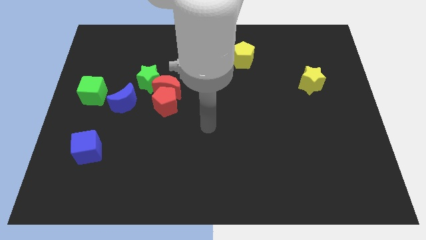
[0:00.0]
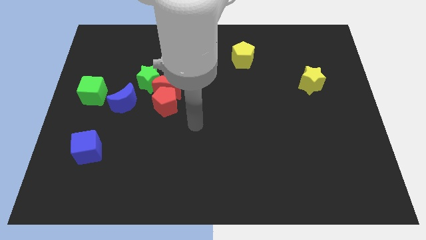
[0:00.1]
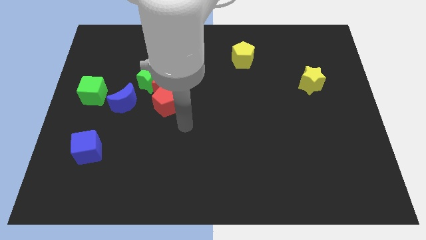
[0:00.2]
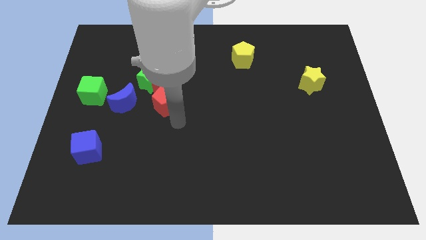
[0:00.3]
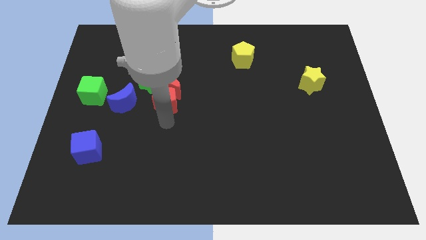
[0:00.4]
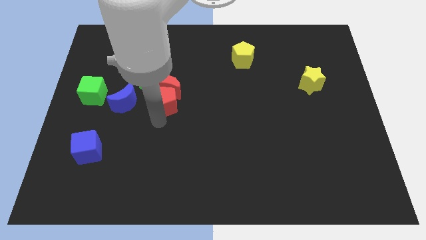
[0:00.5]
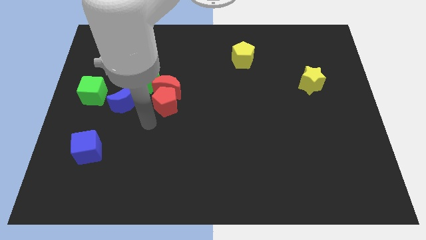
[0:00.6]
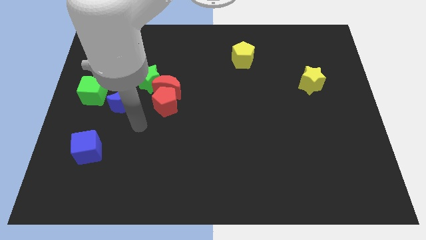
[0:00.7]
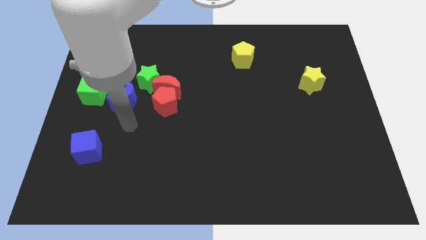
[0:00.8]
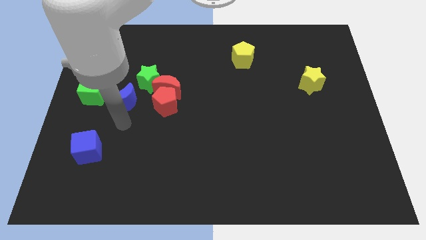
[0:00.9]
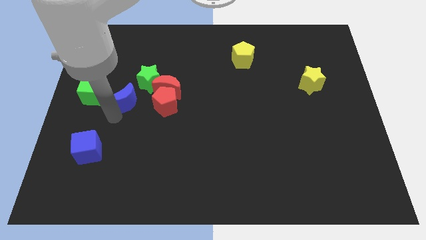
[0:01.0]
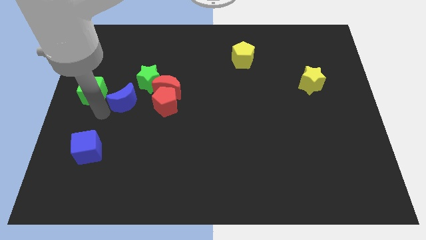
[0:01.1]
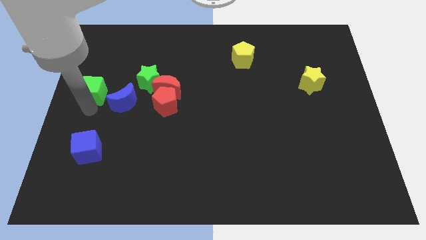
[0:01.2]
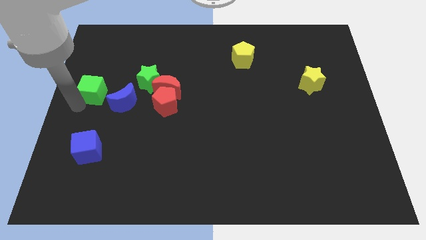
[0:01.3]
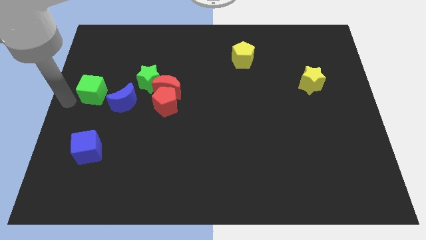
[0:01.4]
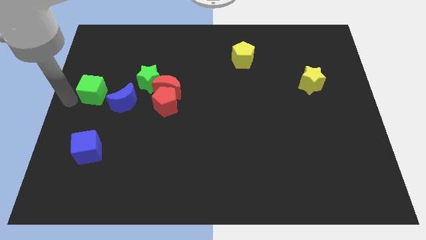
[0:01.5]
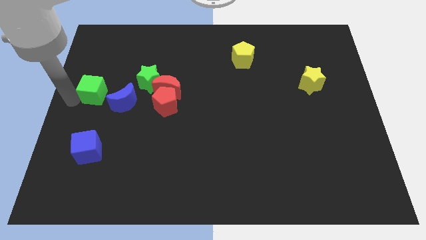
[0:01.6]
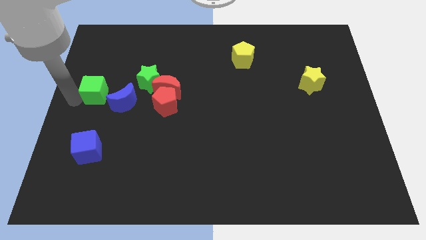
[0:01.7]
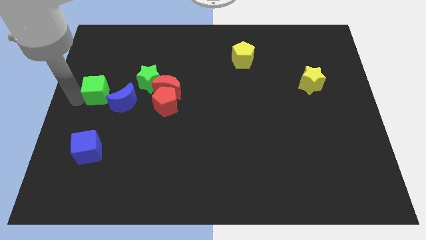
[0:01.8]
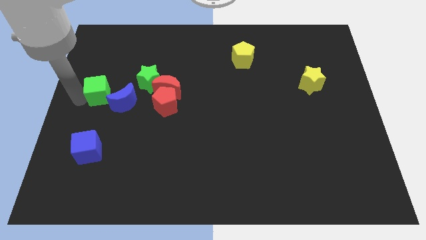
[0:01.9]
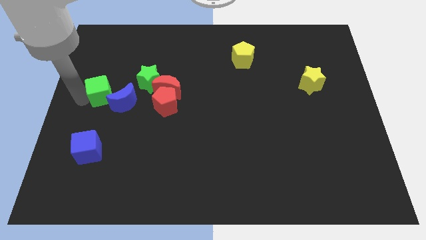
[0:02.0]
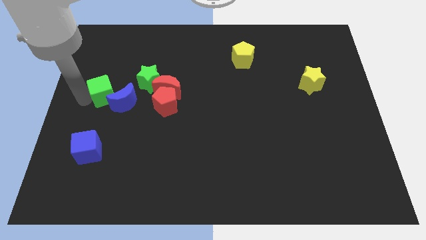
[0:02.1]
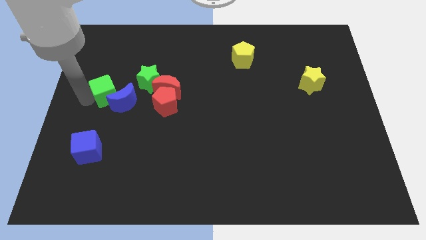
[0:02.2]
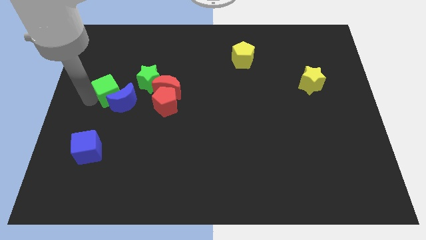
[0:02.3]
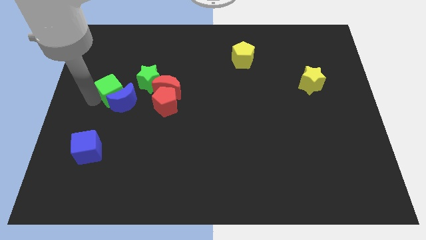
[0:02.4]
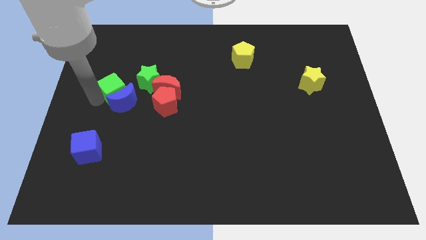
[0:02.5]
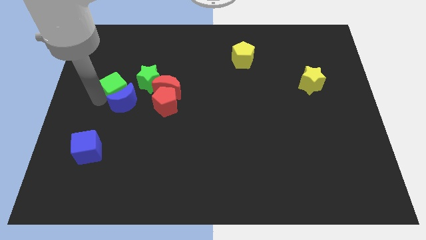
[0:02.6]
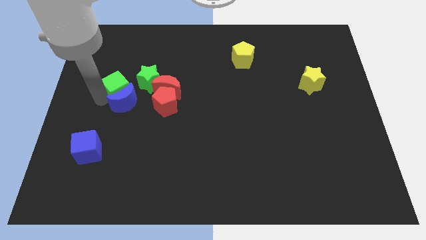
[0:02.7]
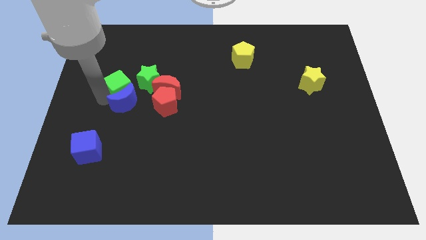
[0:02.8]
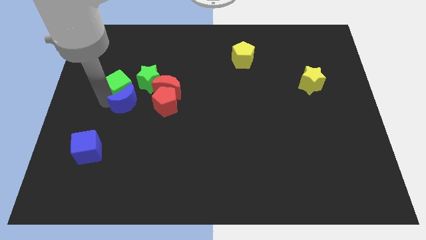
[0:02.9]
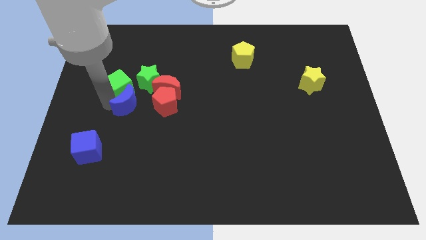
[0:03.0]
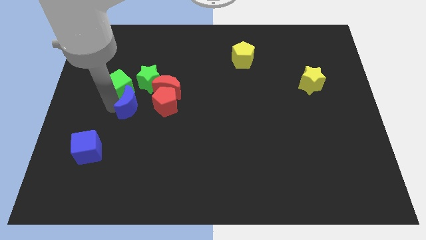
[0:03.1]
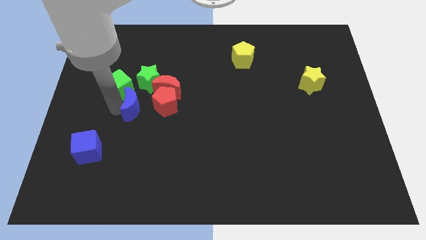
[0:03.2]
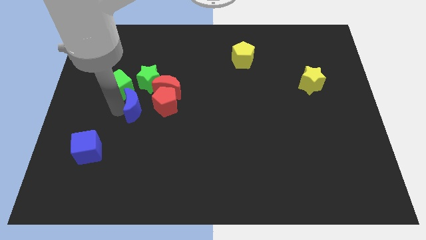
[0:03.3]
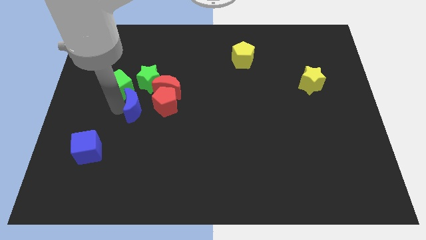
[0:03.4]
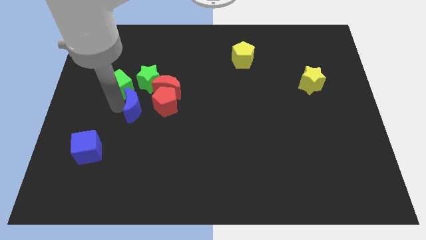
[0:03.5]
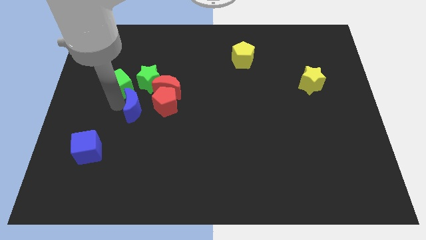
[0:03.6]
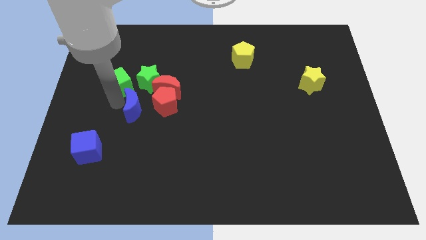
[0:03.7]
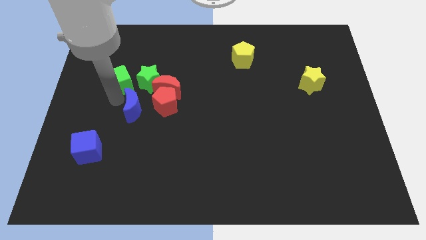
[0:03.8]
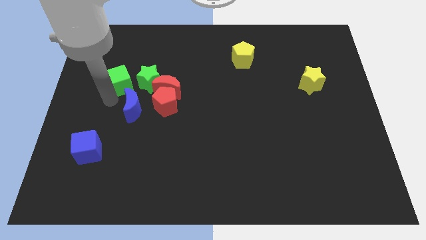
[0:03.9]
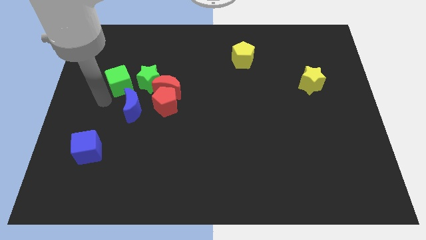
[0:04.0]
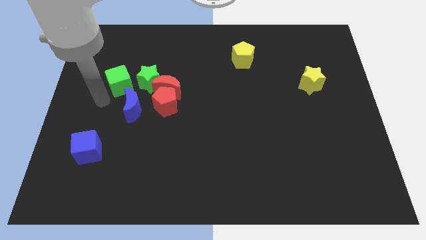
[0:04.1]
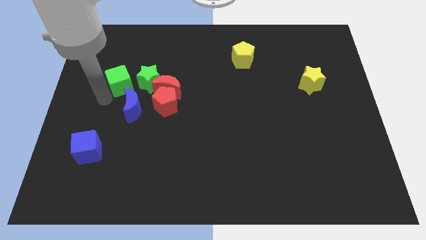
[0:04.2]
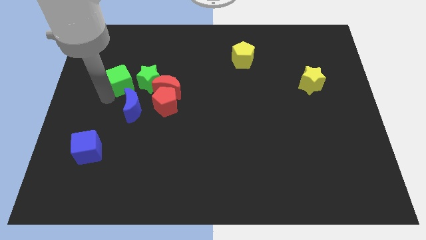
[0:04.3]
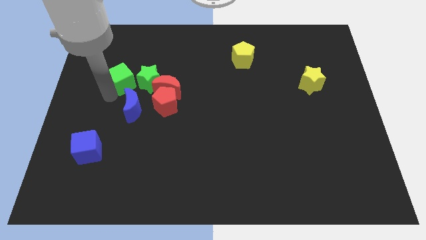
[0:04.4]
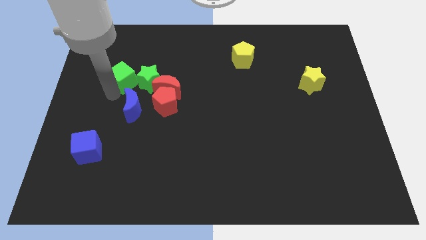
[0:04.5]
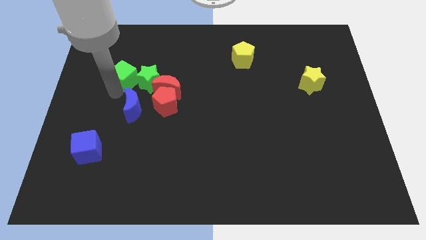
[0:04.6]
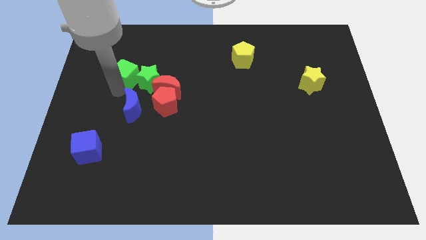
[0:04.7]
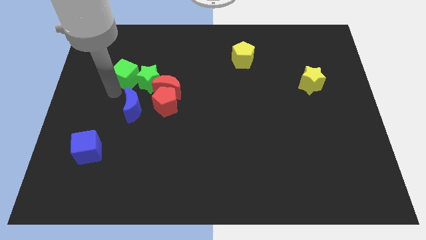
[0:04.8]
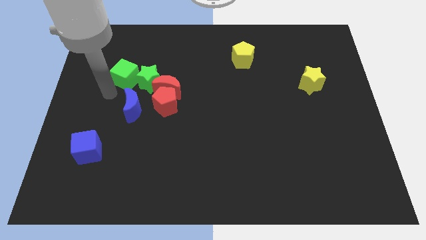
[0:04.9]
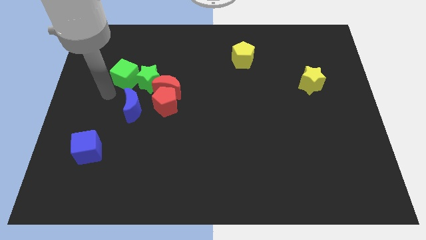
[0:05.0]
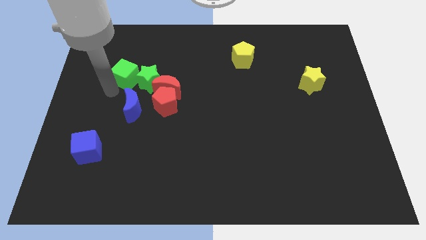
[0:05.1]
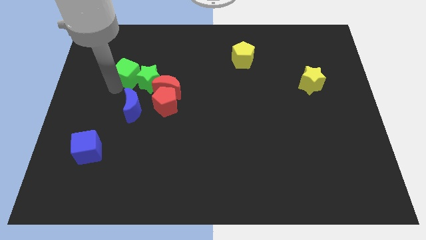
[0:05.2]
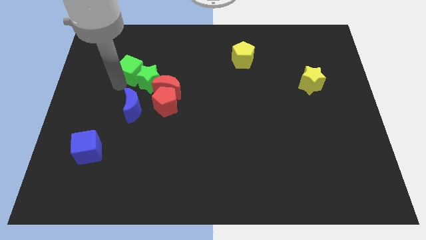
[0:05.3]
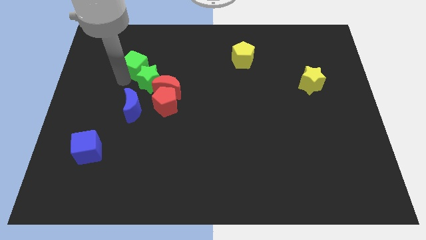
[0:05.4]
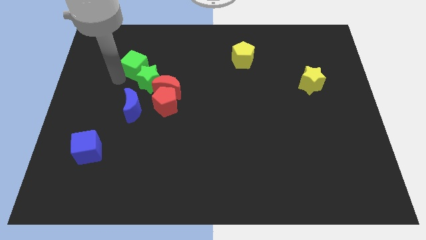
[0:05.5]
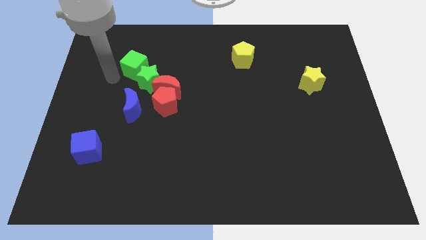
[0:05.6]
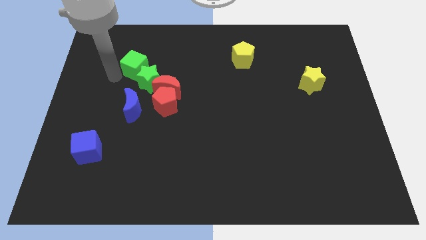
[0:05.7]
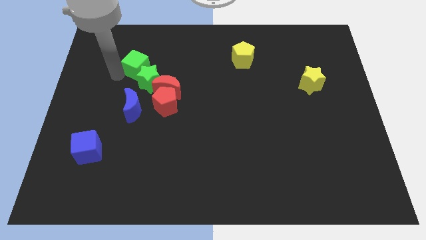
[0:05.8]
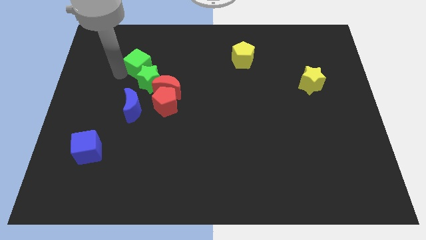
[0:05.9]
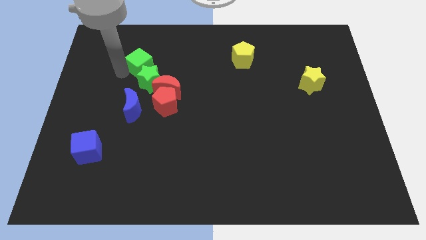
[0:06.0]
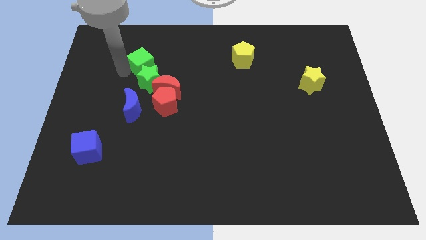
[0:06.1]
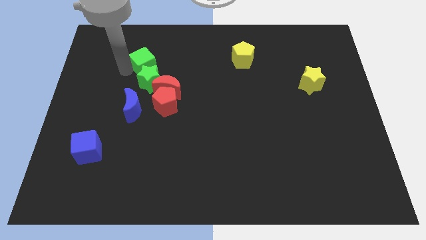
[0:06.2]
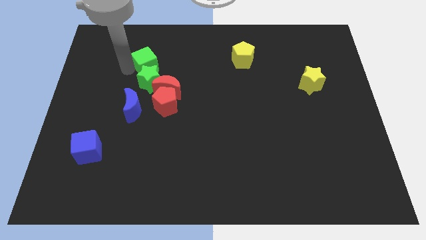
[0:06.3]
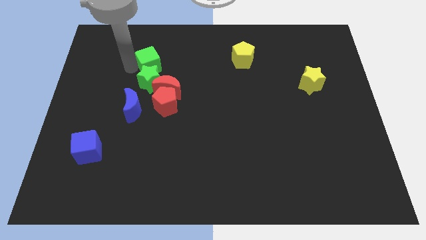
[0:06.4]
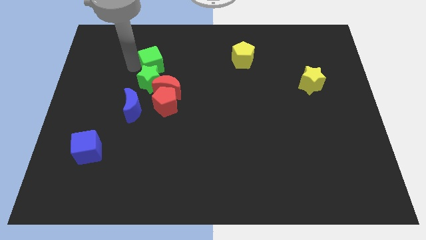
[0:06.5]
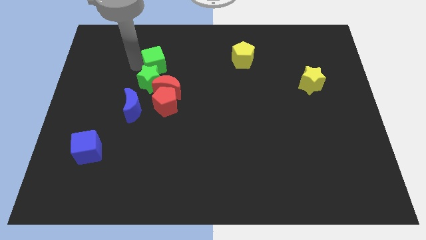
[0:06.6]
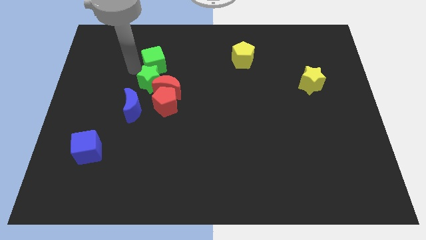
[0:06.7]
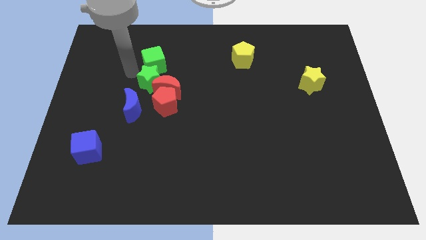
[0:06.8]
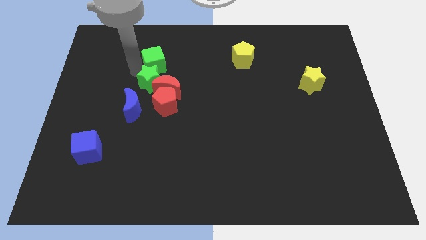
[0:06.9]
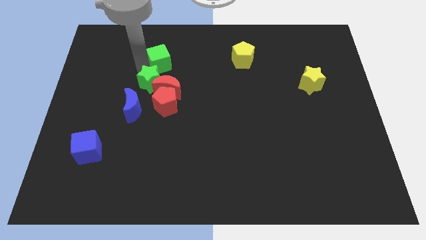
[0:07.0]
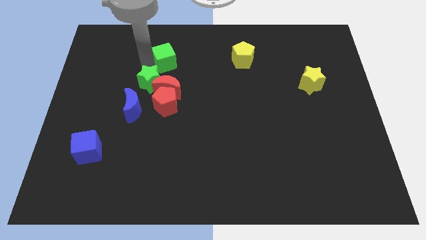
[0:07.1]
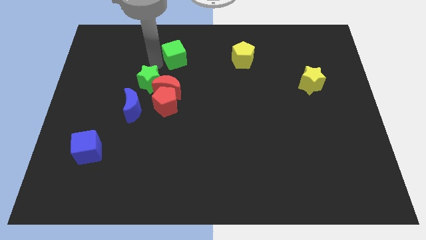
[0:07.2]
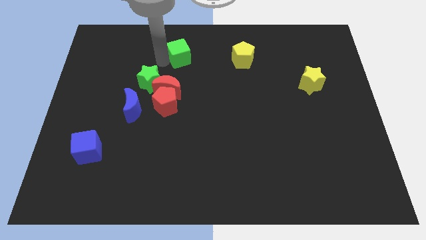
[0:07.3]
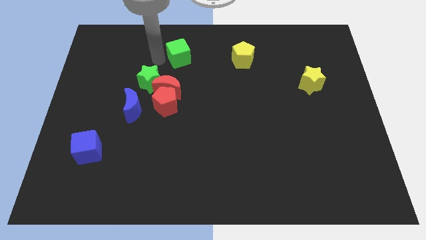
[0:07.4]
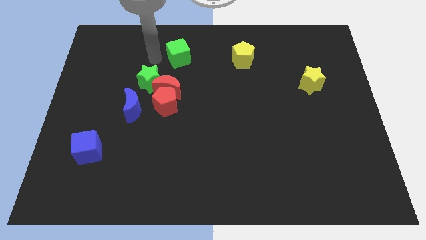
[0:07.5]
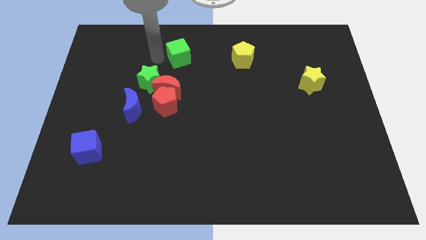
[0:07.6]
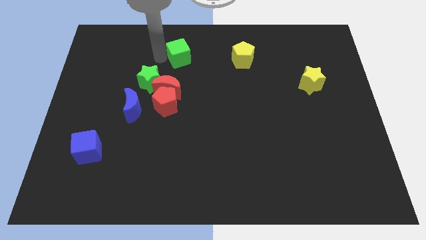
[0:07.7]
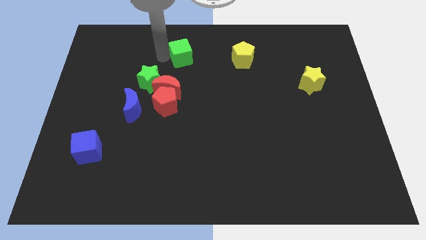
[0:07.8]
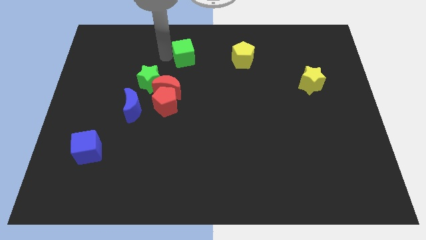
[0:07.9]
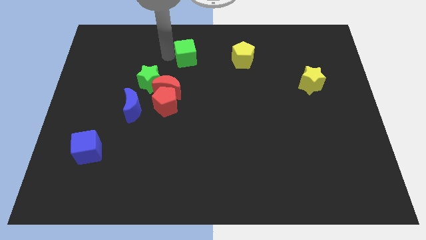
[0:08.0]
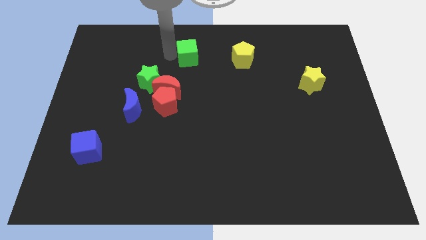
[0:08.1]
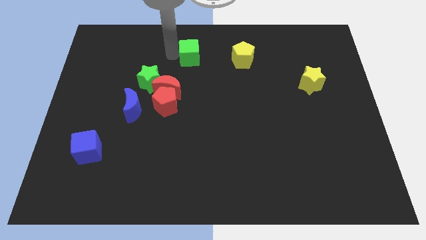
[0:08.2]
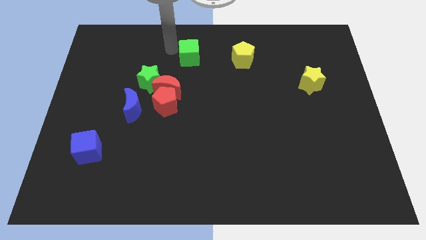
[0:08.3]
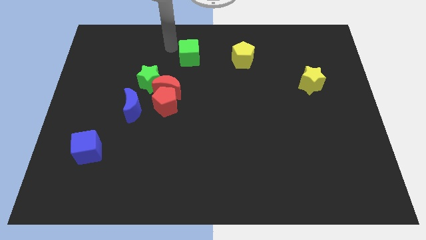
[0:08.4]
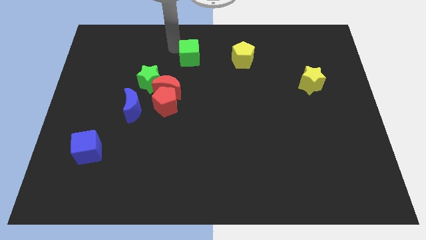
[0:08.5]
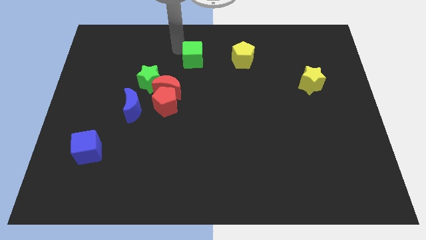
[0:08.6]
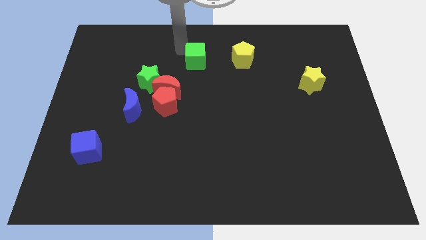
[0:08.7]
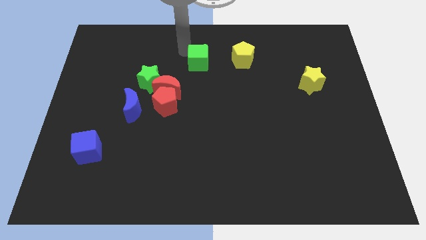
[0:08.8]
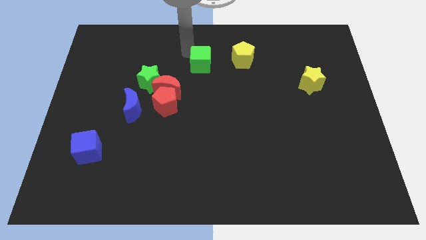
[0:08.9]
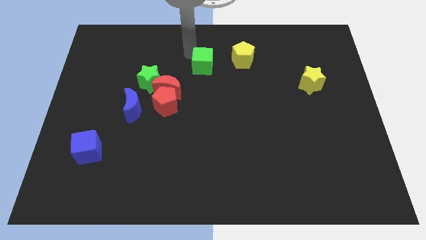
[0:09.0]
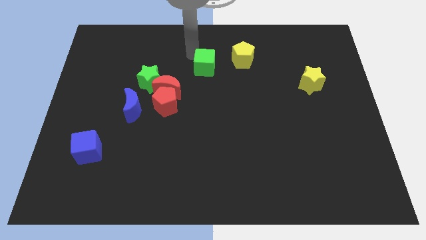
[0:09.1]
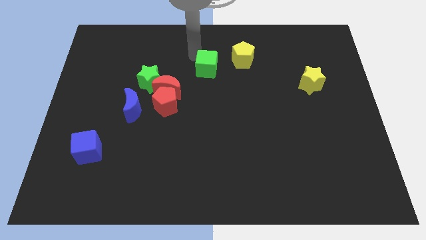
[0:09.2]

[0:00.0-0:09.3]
move the green cube to the bottom left of the yellow pentagon
